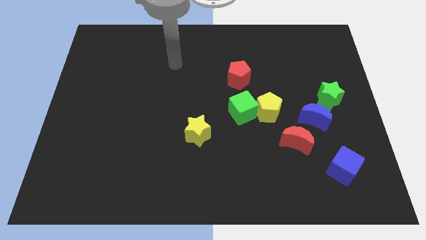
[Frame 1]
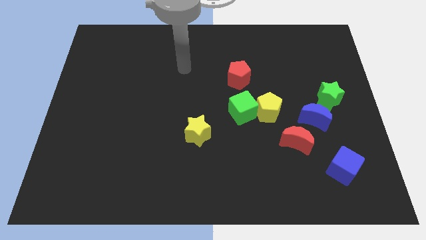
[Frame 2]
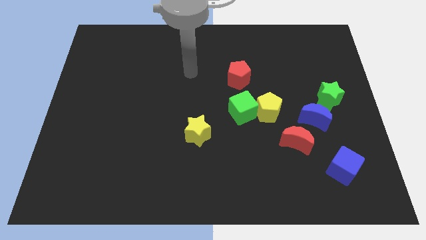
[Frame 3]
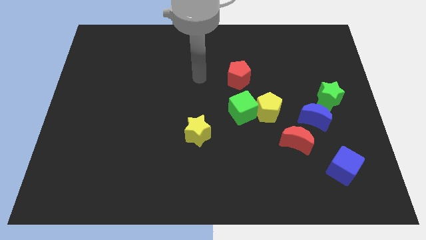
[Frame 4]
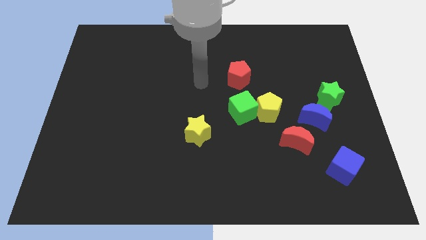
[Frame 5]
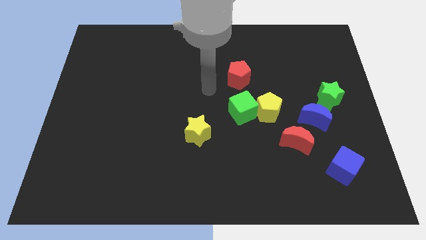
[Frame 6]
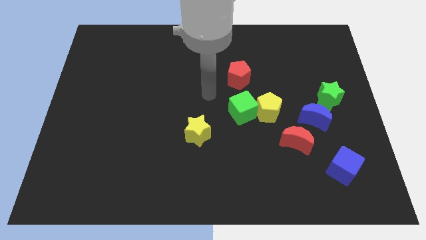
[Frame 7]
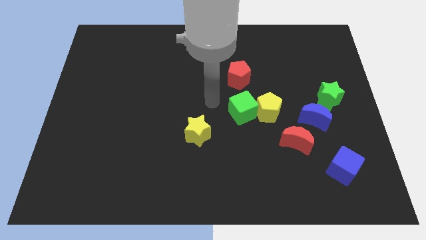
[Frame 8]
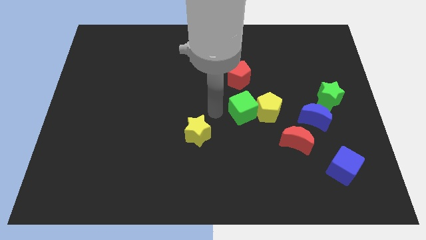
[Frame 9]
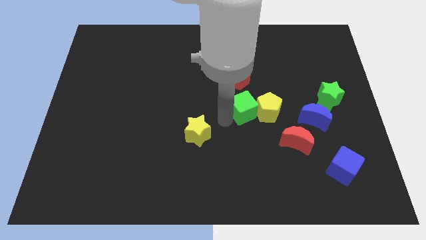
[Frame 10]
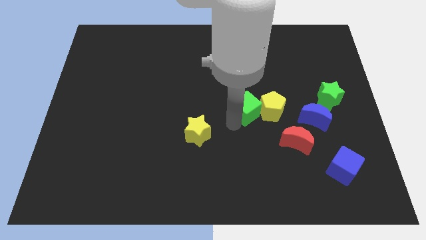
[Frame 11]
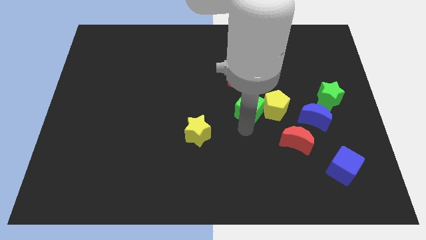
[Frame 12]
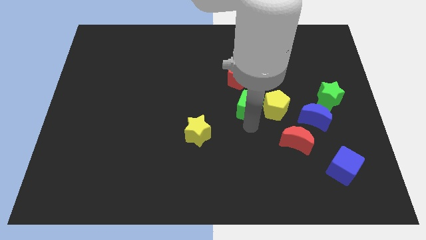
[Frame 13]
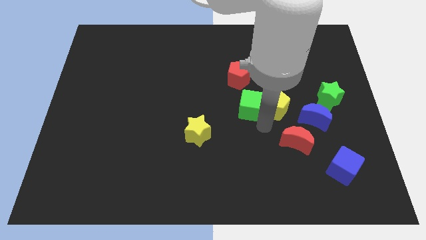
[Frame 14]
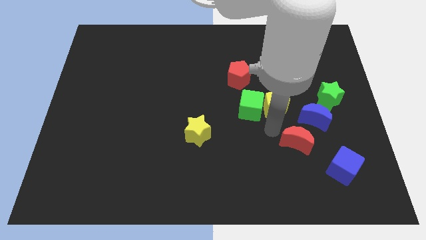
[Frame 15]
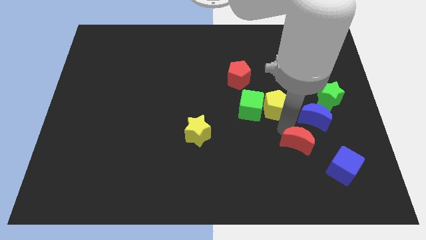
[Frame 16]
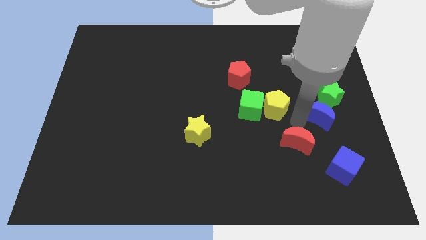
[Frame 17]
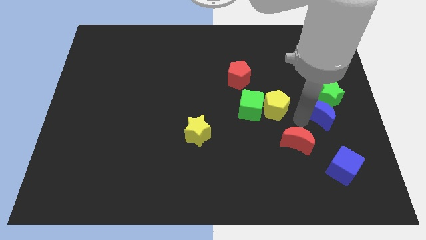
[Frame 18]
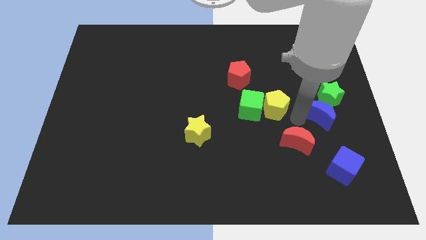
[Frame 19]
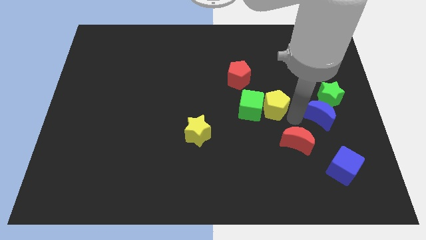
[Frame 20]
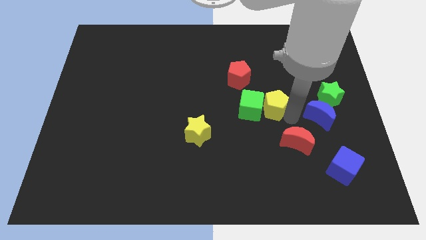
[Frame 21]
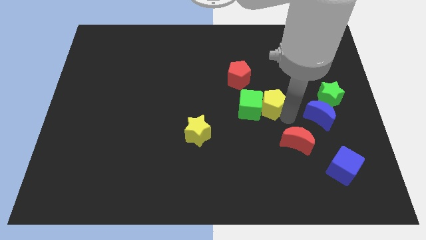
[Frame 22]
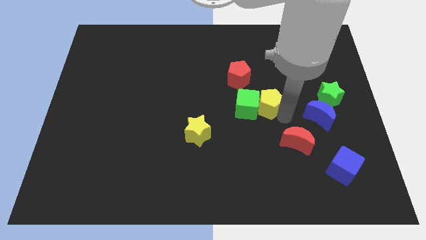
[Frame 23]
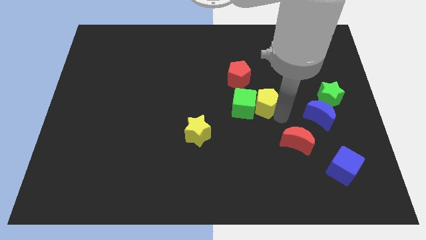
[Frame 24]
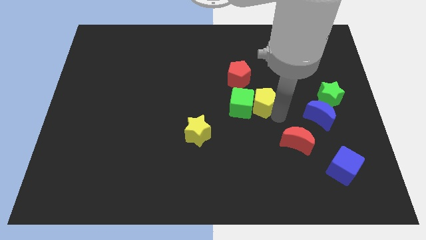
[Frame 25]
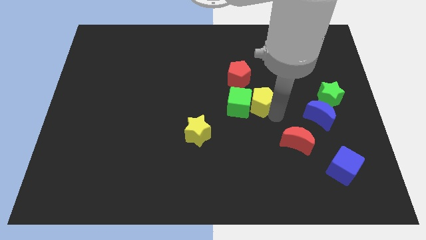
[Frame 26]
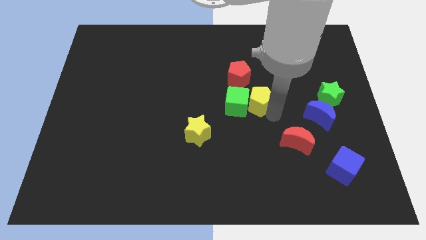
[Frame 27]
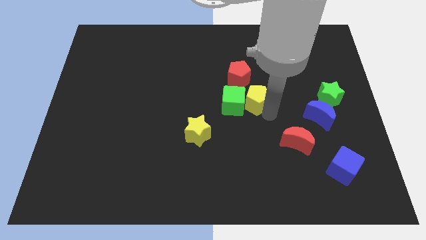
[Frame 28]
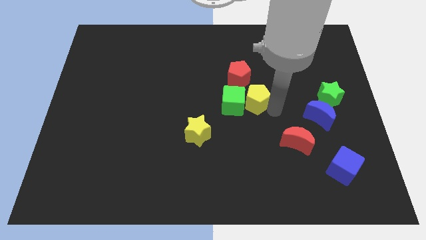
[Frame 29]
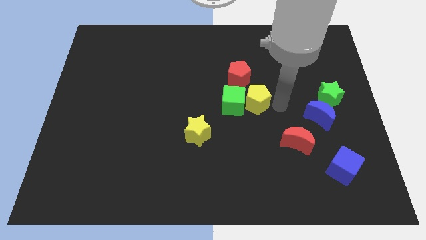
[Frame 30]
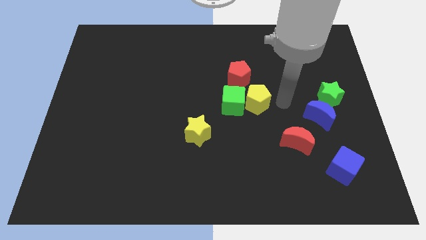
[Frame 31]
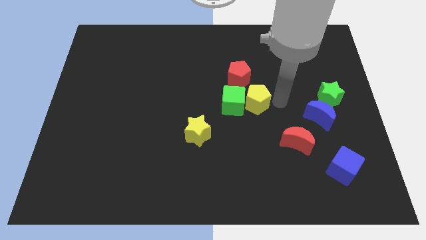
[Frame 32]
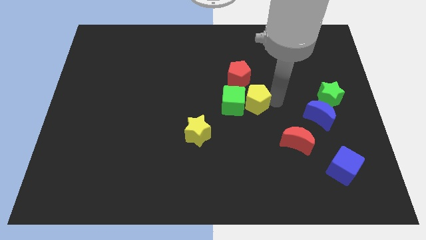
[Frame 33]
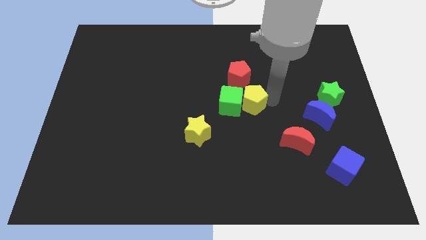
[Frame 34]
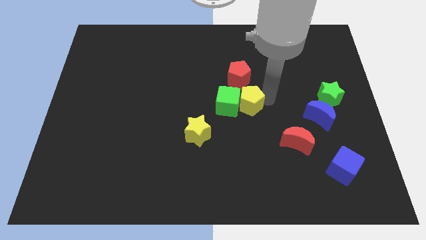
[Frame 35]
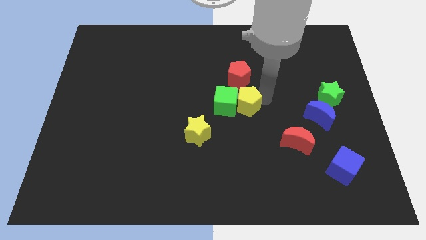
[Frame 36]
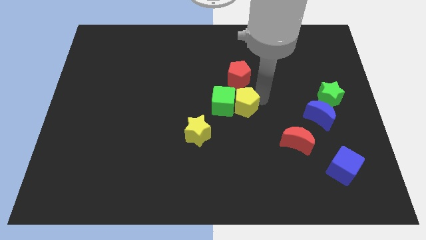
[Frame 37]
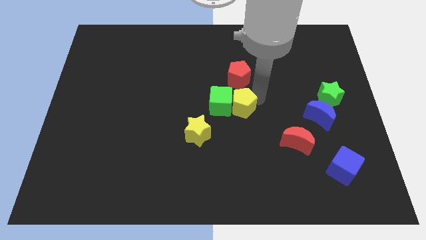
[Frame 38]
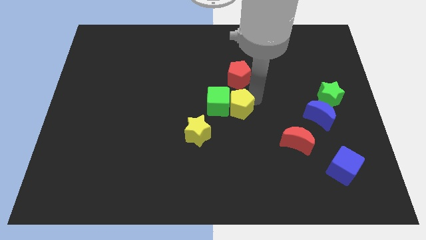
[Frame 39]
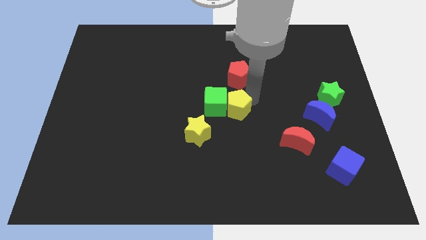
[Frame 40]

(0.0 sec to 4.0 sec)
slide the yellow pentagon a little bit left

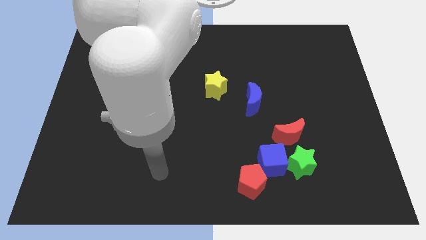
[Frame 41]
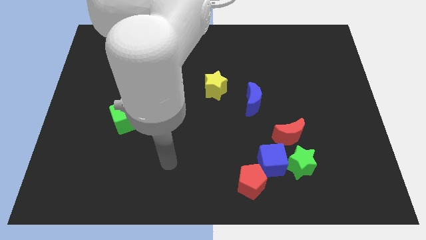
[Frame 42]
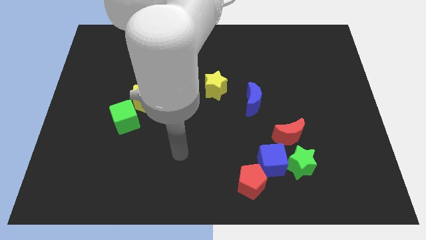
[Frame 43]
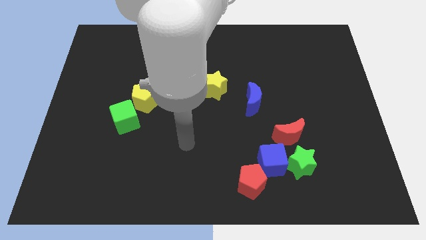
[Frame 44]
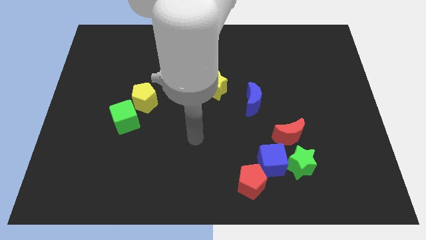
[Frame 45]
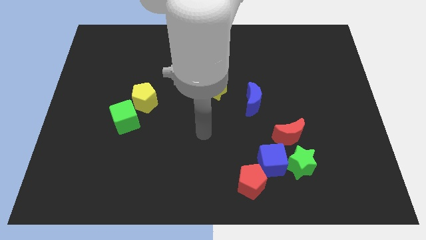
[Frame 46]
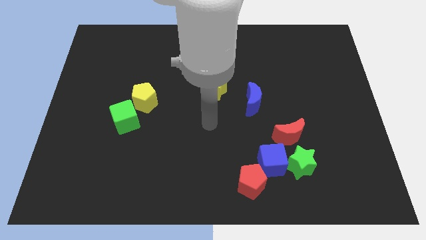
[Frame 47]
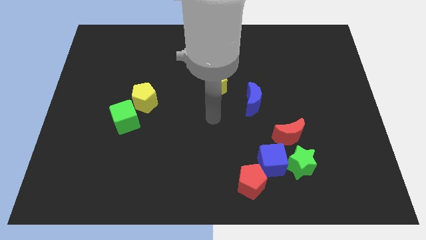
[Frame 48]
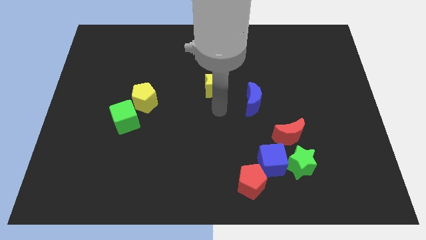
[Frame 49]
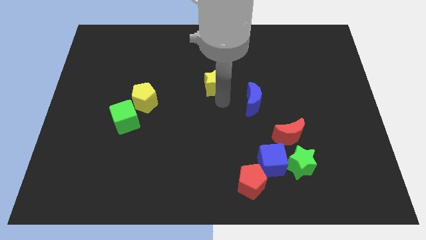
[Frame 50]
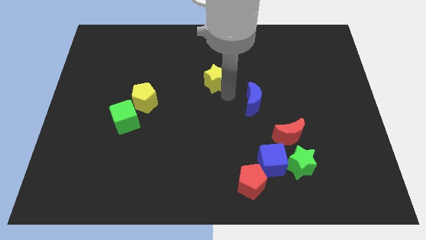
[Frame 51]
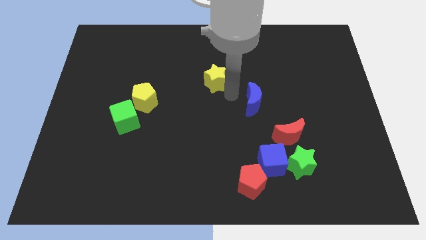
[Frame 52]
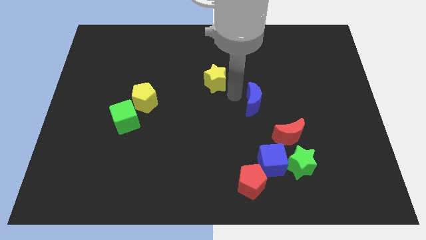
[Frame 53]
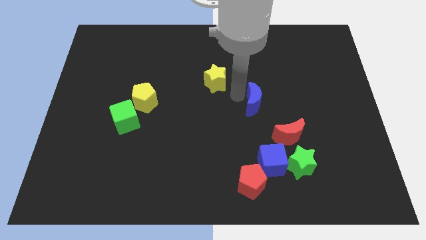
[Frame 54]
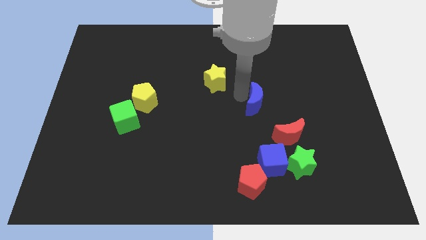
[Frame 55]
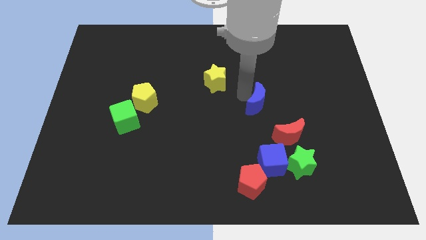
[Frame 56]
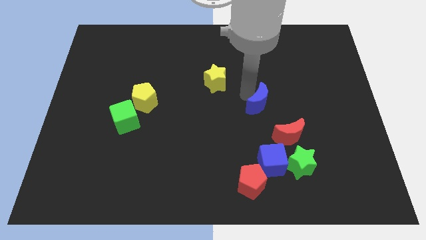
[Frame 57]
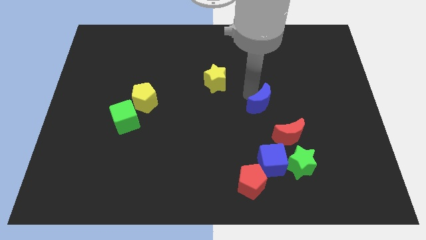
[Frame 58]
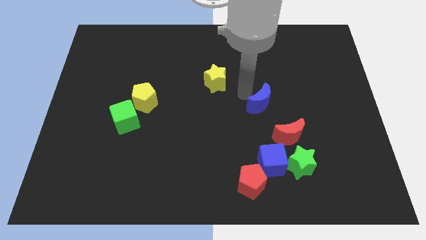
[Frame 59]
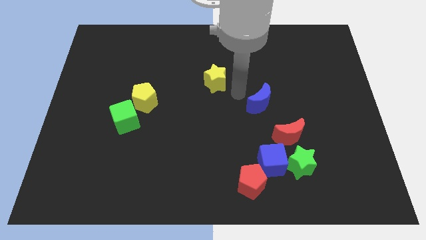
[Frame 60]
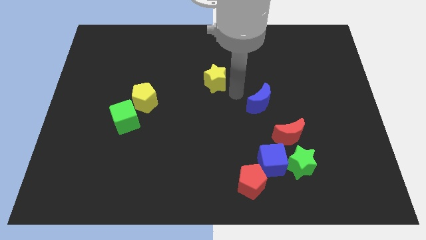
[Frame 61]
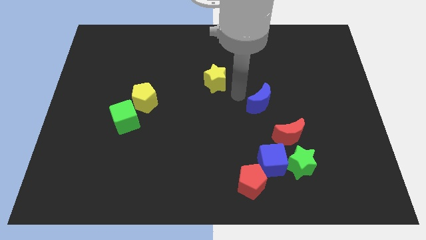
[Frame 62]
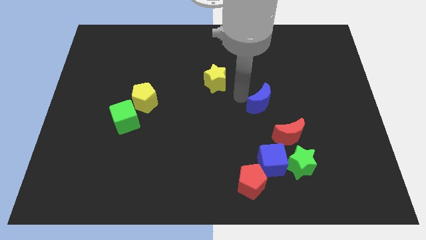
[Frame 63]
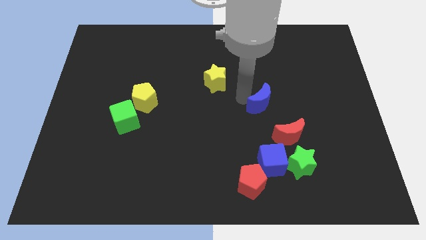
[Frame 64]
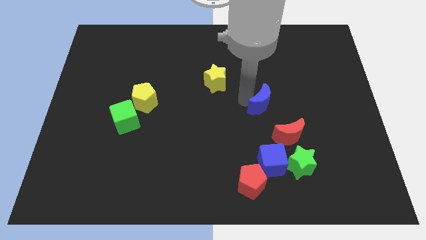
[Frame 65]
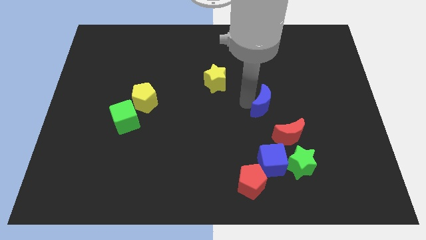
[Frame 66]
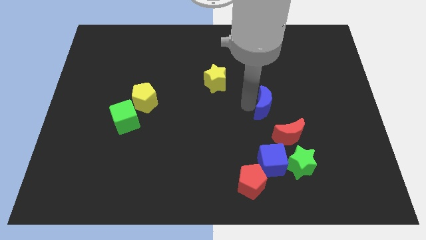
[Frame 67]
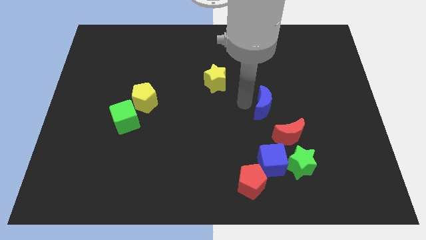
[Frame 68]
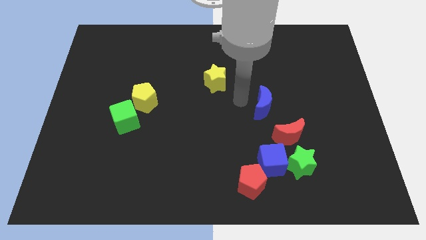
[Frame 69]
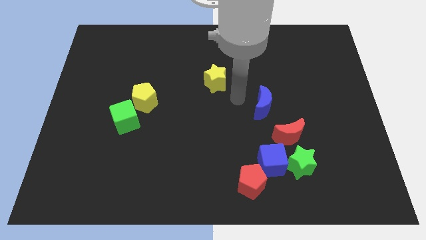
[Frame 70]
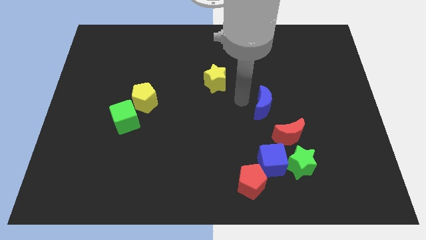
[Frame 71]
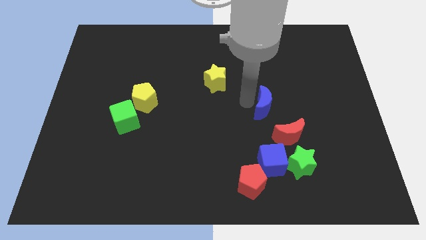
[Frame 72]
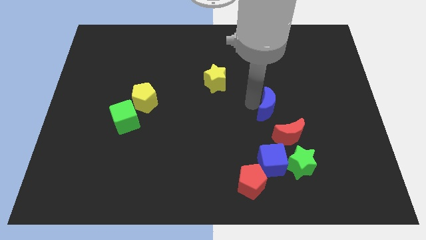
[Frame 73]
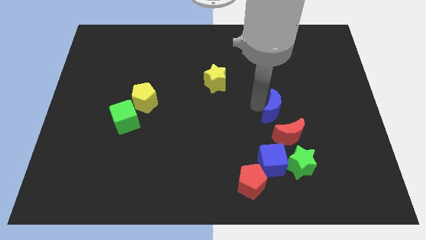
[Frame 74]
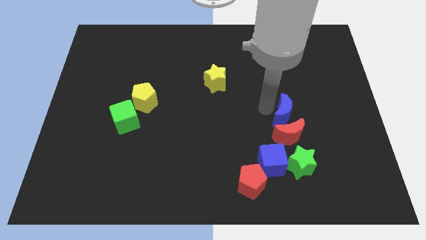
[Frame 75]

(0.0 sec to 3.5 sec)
slightly slide the blue moon downwards and to the right

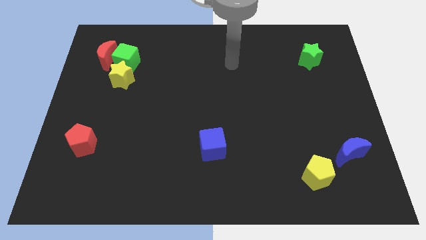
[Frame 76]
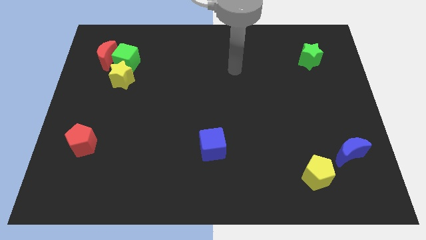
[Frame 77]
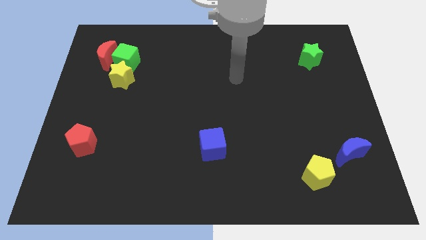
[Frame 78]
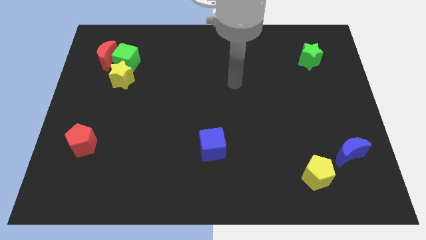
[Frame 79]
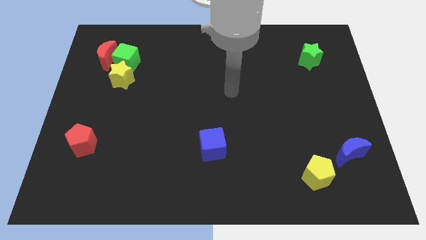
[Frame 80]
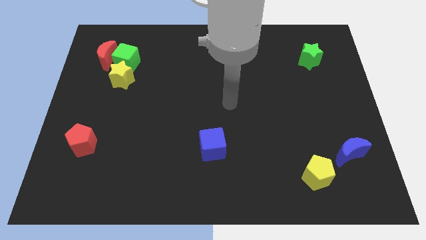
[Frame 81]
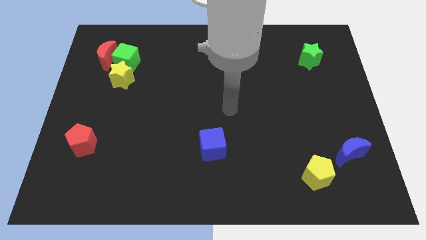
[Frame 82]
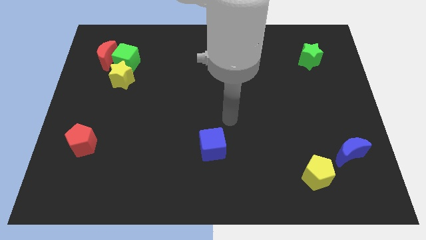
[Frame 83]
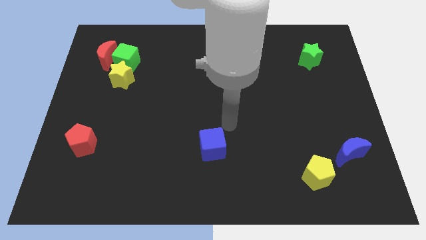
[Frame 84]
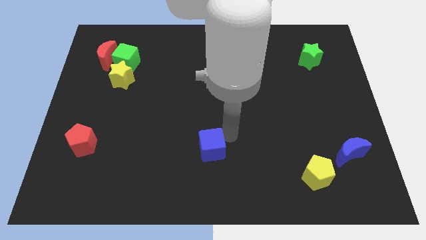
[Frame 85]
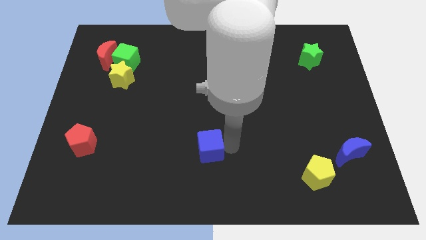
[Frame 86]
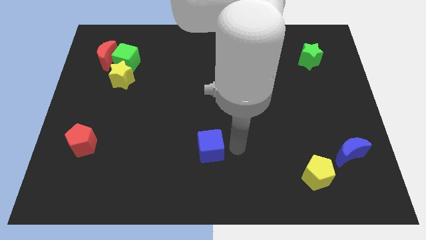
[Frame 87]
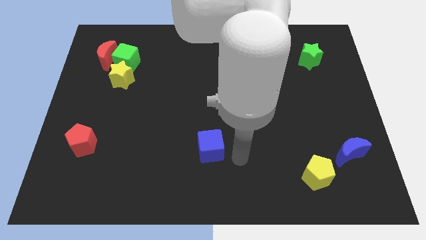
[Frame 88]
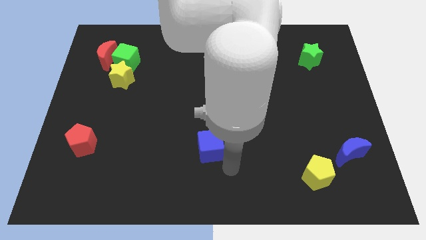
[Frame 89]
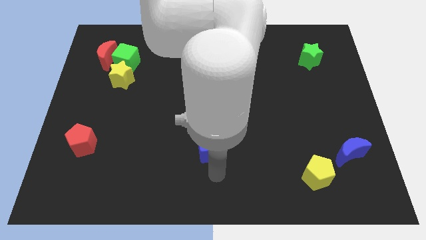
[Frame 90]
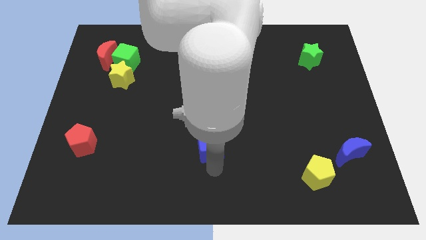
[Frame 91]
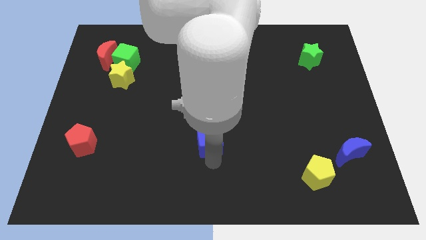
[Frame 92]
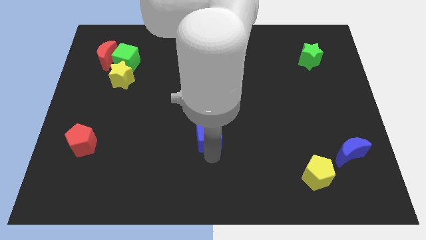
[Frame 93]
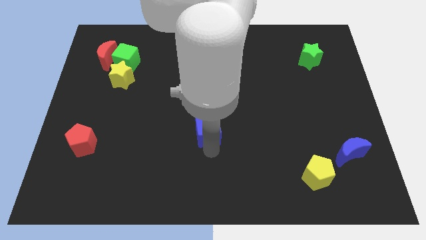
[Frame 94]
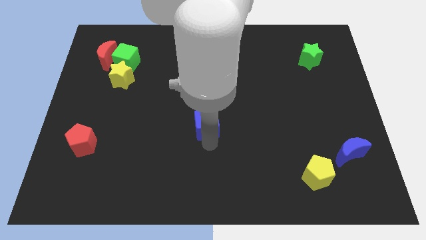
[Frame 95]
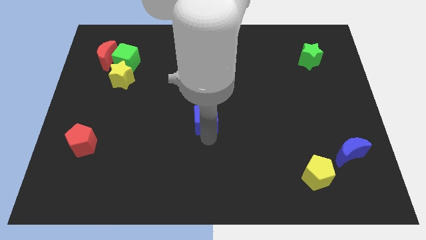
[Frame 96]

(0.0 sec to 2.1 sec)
slide the blue cube slightly upwards
